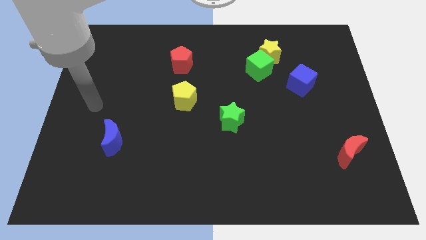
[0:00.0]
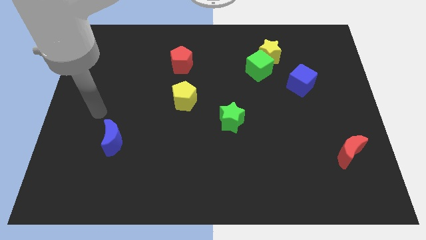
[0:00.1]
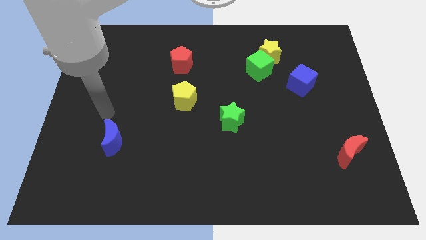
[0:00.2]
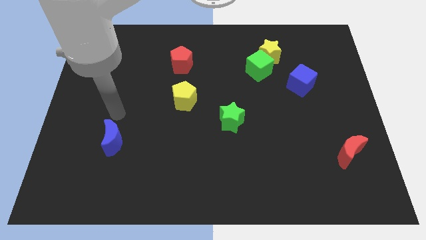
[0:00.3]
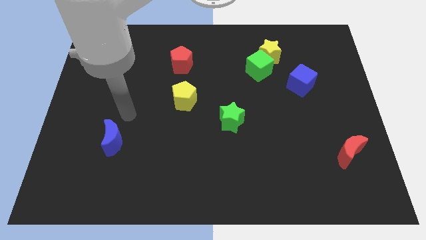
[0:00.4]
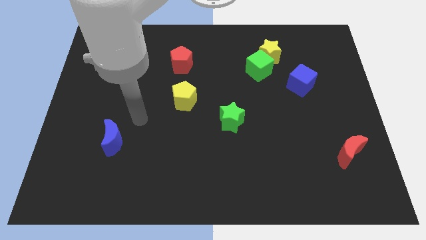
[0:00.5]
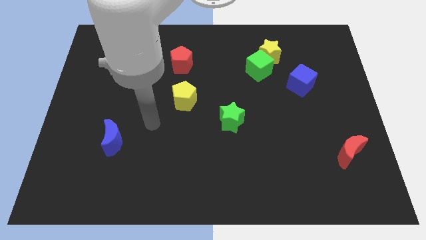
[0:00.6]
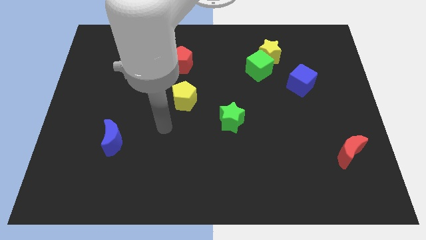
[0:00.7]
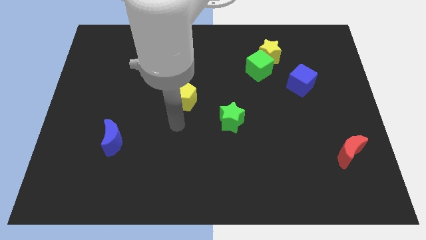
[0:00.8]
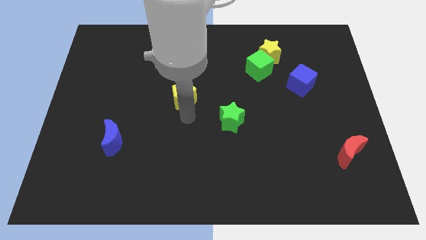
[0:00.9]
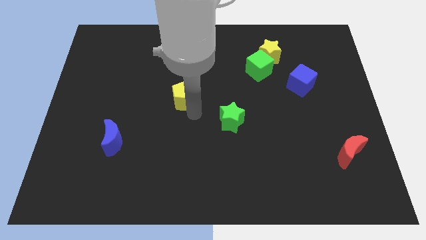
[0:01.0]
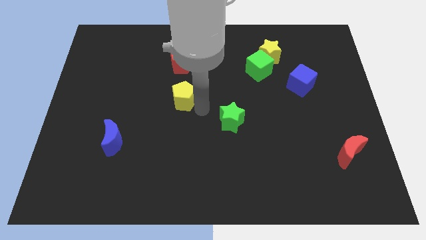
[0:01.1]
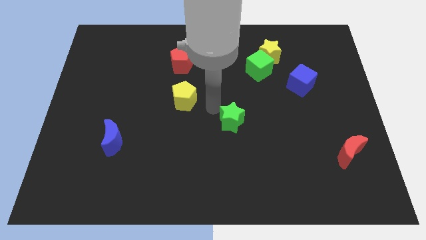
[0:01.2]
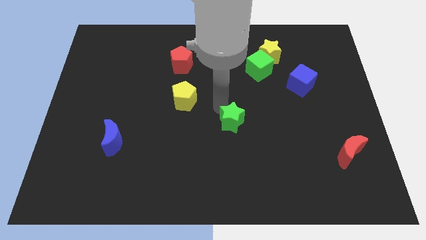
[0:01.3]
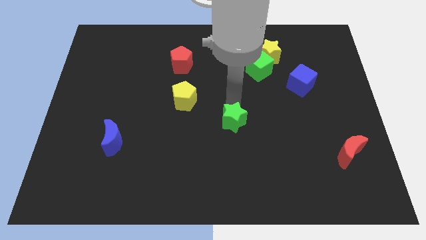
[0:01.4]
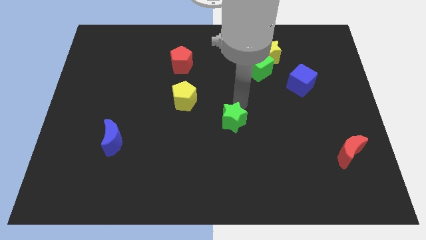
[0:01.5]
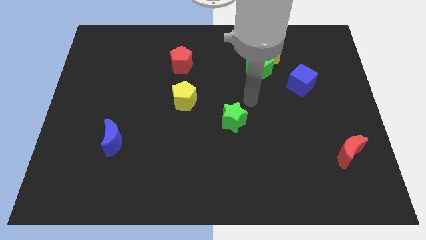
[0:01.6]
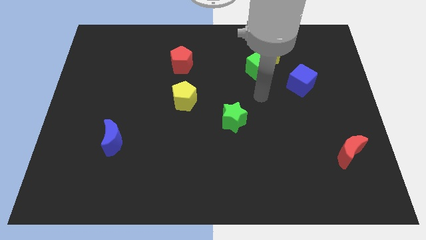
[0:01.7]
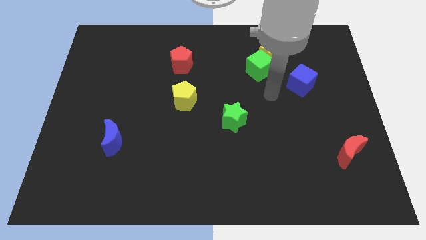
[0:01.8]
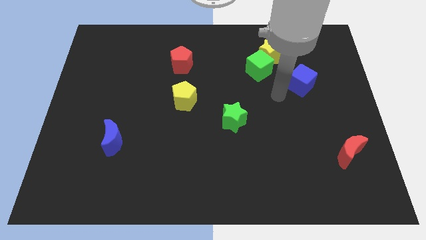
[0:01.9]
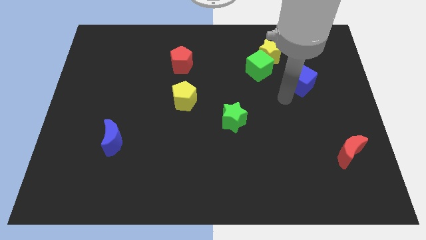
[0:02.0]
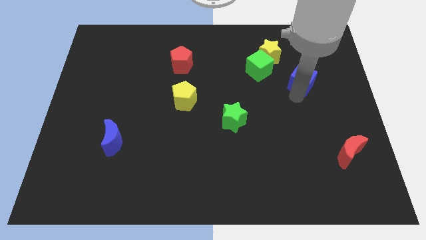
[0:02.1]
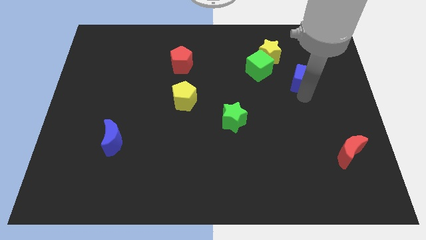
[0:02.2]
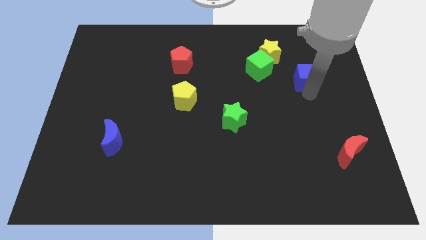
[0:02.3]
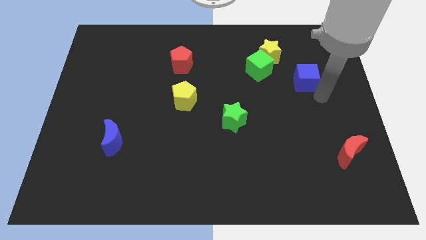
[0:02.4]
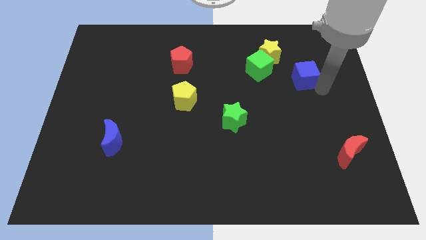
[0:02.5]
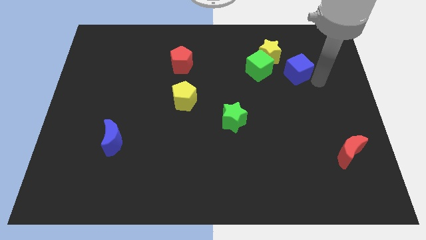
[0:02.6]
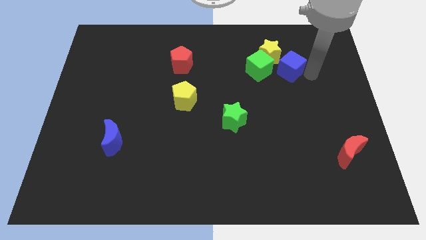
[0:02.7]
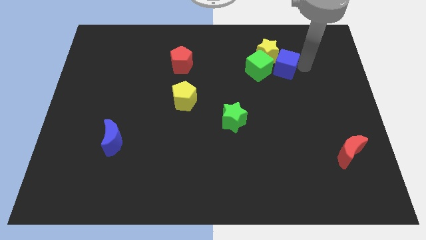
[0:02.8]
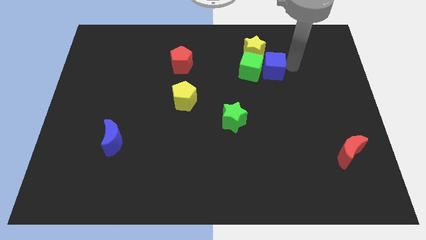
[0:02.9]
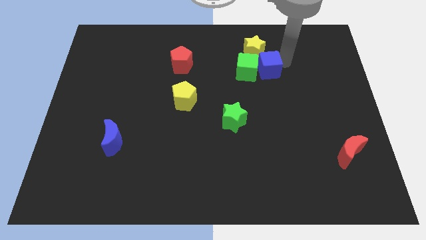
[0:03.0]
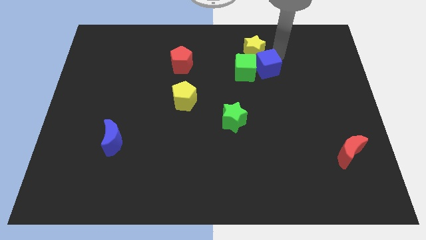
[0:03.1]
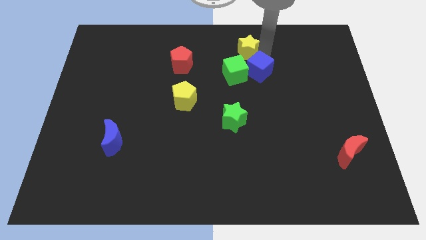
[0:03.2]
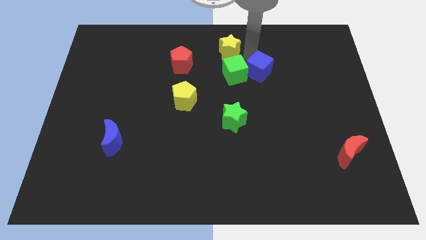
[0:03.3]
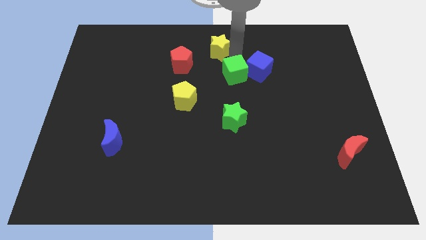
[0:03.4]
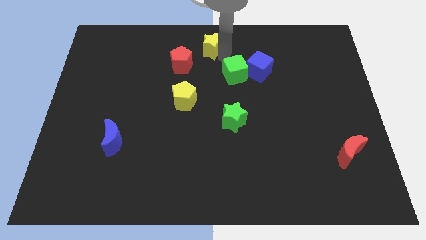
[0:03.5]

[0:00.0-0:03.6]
separate the green cube from the yellow star

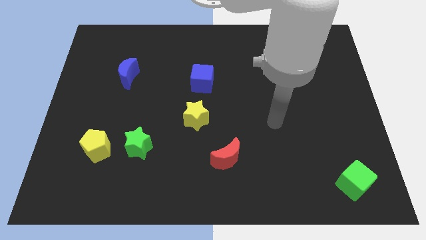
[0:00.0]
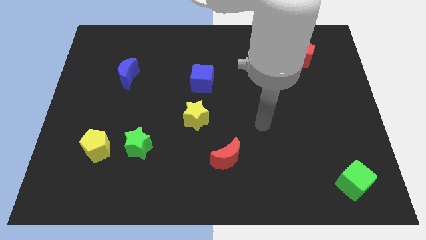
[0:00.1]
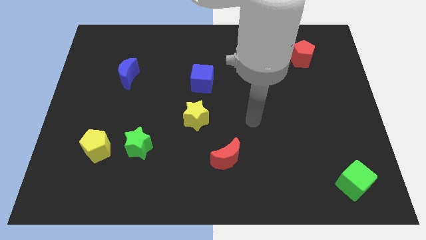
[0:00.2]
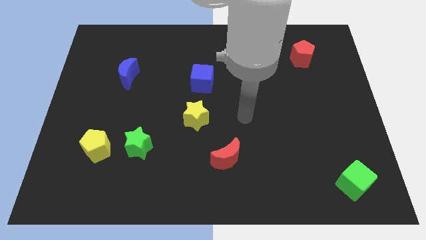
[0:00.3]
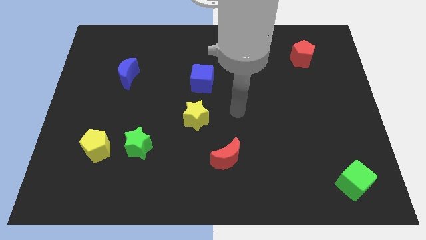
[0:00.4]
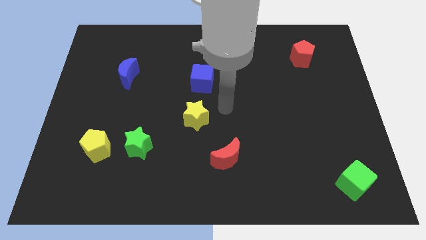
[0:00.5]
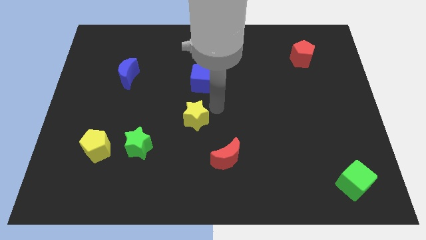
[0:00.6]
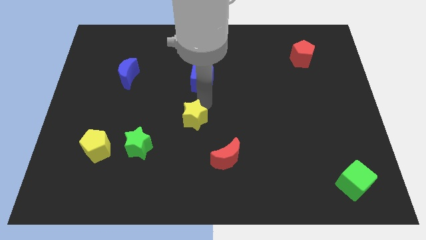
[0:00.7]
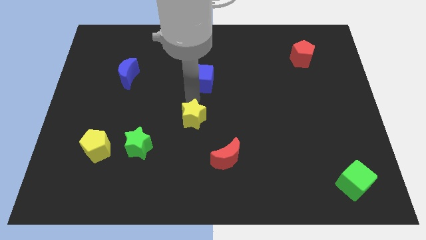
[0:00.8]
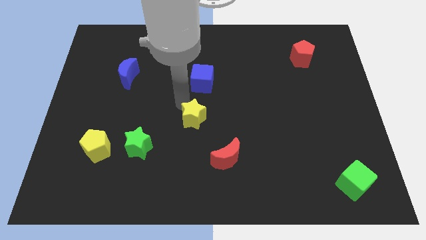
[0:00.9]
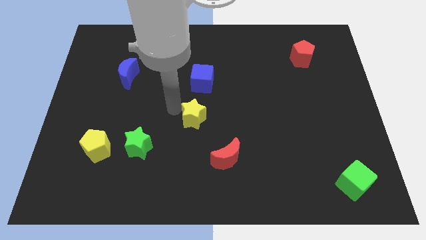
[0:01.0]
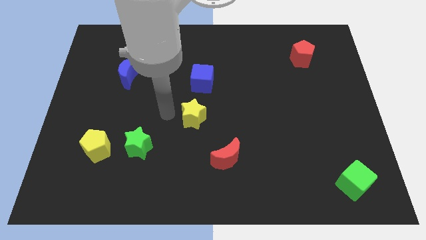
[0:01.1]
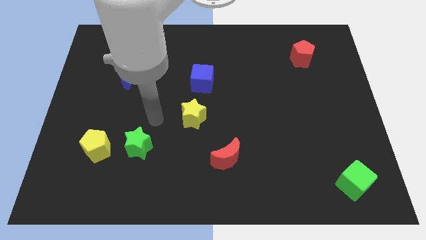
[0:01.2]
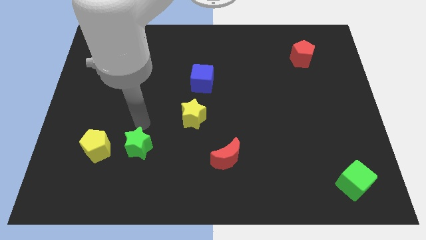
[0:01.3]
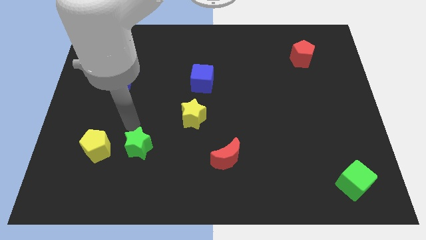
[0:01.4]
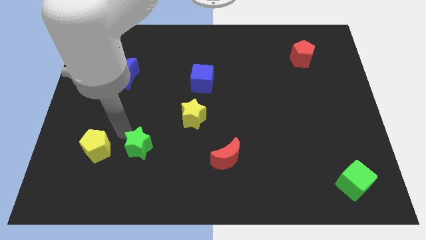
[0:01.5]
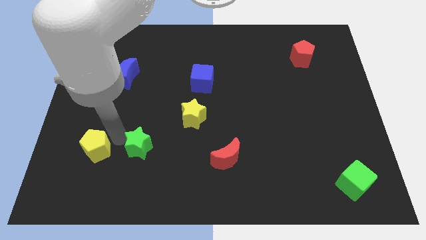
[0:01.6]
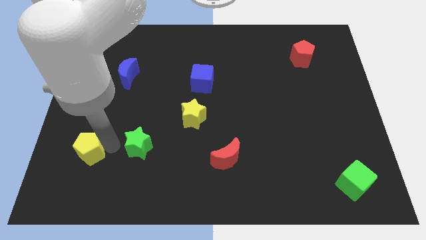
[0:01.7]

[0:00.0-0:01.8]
pull the green star apart from the yellow pentagon

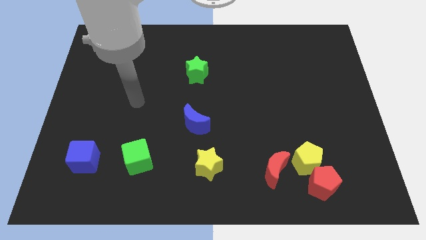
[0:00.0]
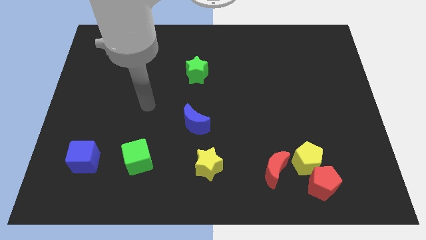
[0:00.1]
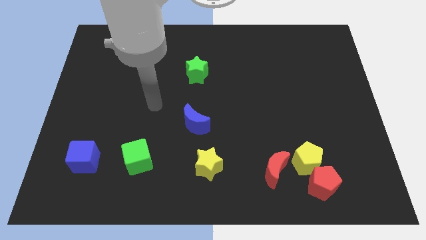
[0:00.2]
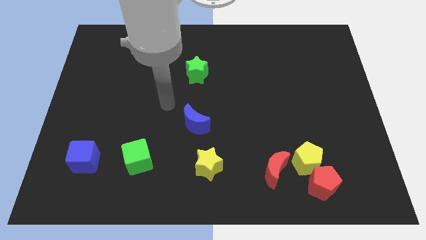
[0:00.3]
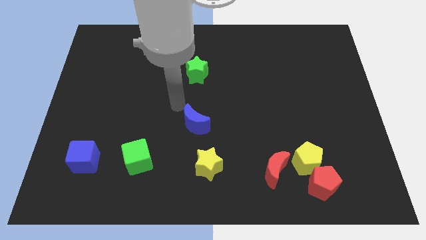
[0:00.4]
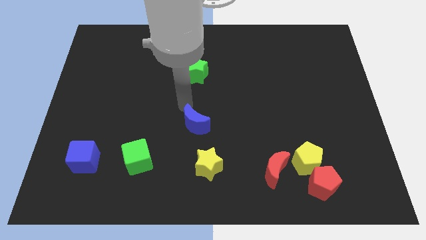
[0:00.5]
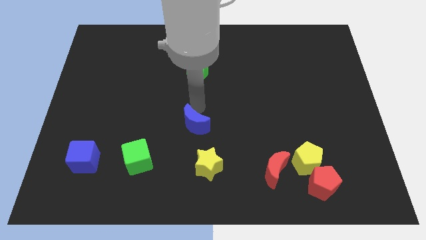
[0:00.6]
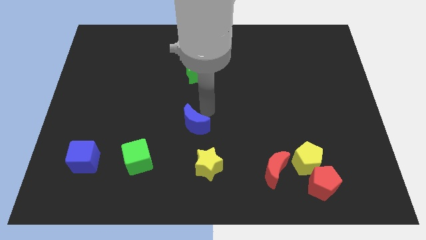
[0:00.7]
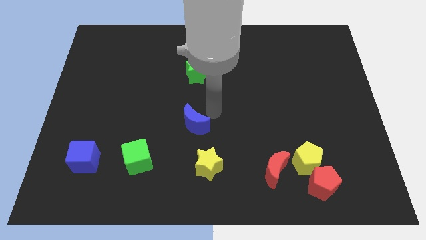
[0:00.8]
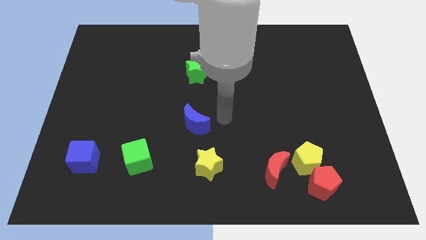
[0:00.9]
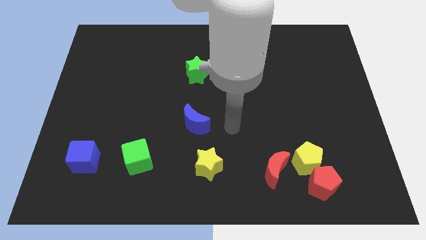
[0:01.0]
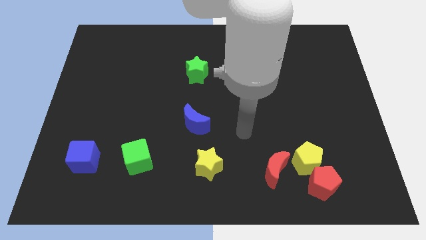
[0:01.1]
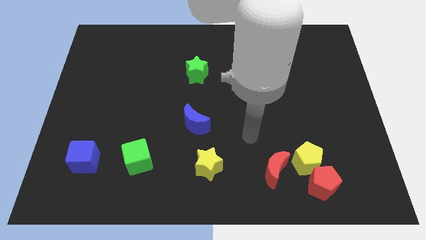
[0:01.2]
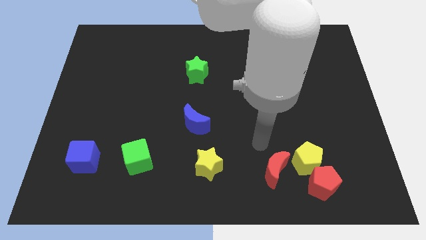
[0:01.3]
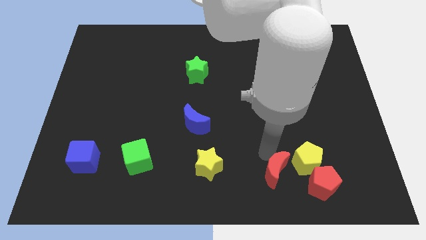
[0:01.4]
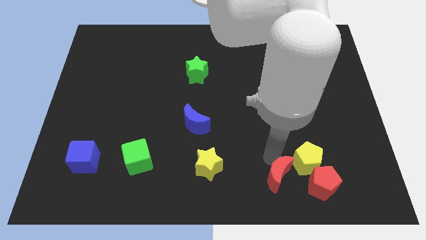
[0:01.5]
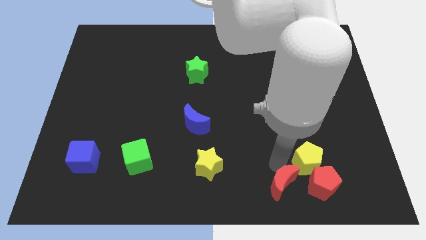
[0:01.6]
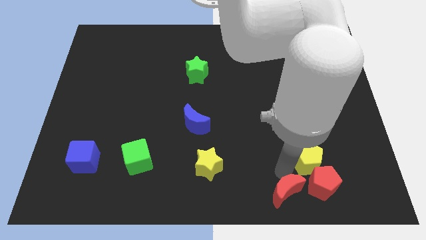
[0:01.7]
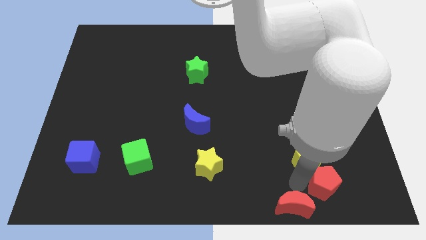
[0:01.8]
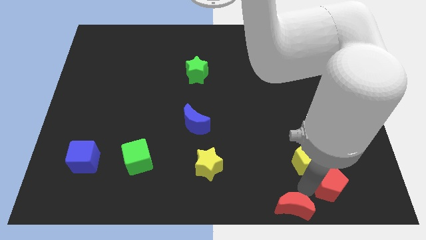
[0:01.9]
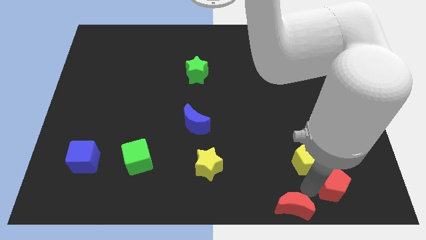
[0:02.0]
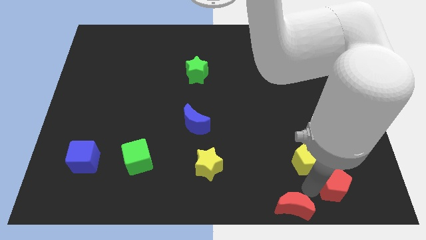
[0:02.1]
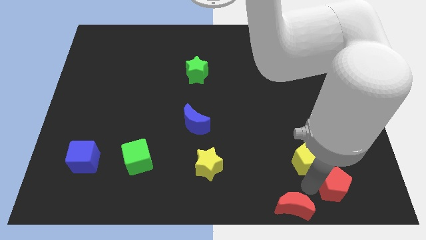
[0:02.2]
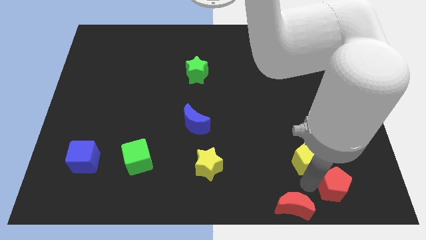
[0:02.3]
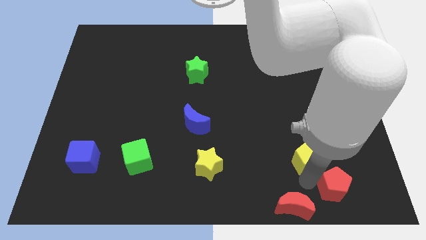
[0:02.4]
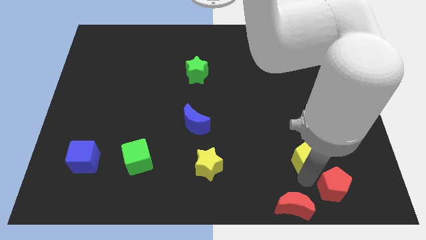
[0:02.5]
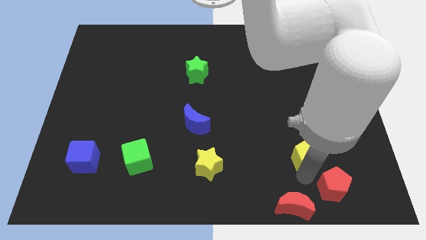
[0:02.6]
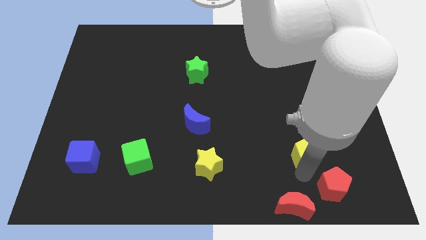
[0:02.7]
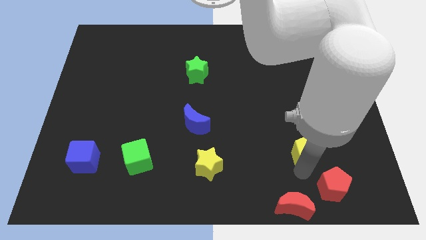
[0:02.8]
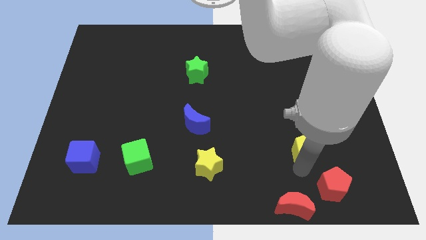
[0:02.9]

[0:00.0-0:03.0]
pull the yellow pentagon apart from the red pentagon and red moon

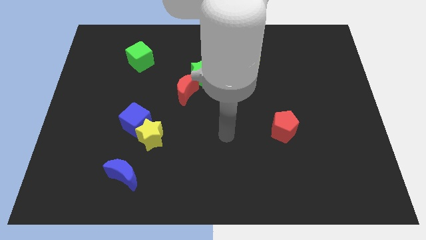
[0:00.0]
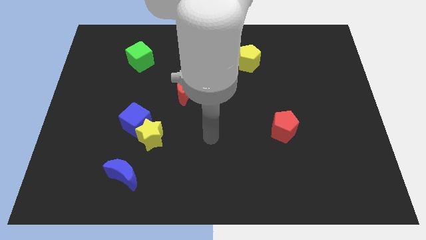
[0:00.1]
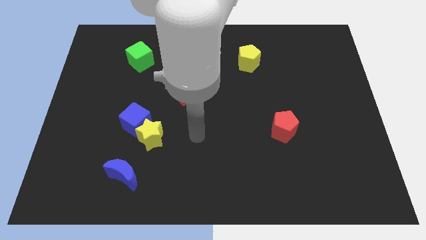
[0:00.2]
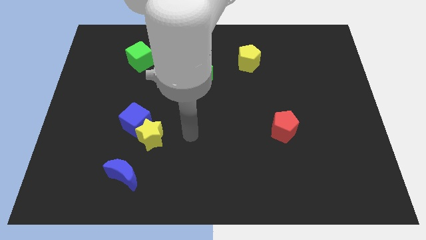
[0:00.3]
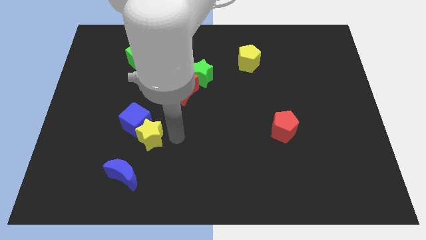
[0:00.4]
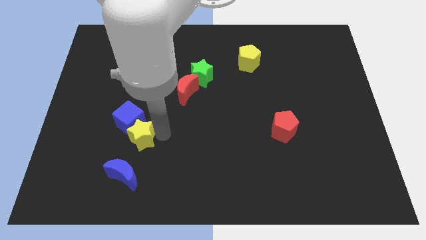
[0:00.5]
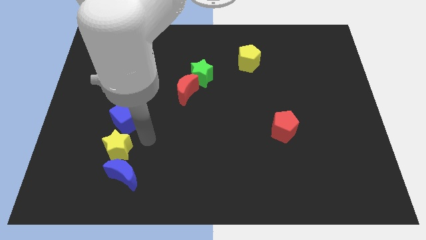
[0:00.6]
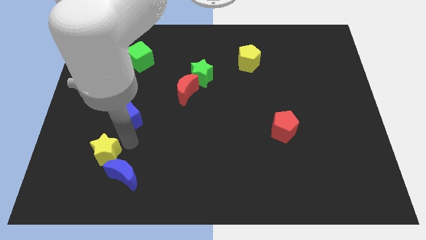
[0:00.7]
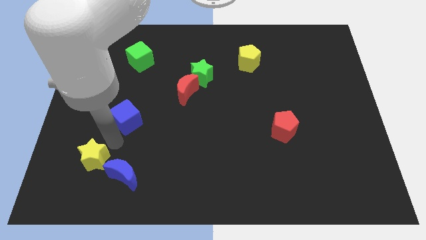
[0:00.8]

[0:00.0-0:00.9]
move the blue cube away from the yellow star
